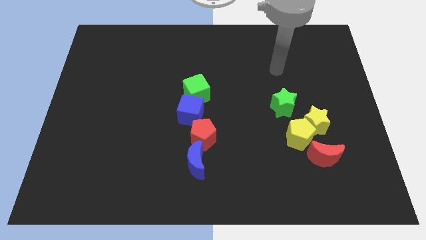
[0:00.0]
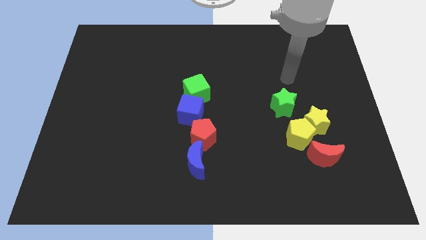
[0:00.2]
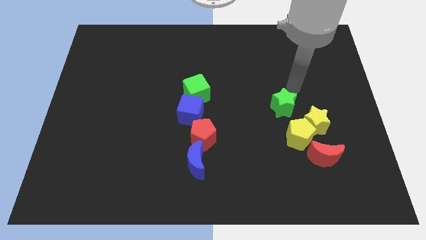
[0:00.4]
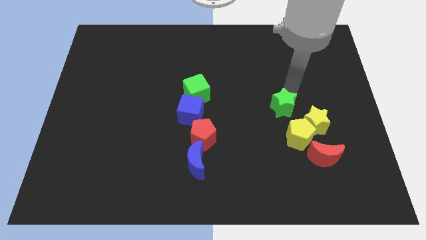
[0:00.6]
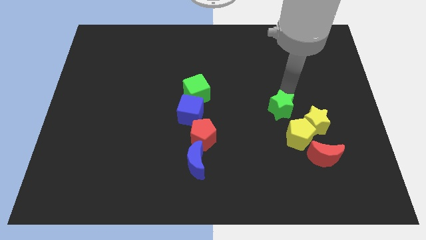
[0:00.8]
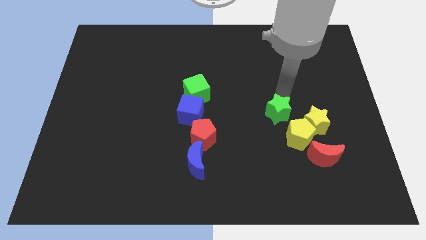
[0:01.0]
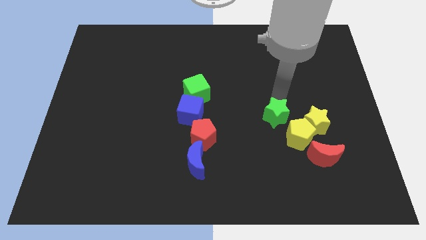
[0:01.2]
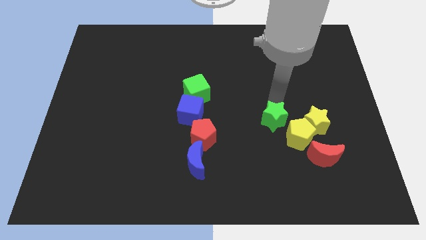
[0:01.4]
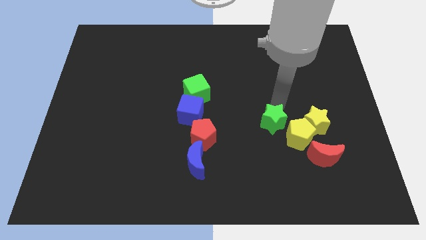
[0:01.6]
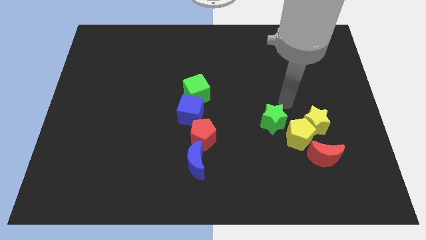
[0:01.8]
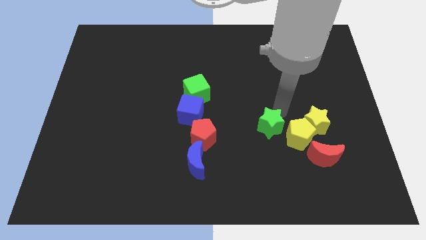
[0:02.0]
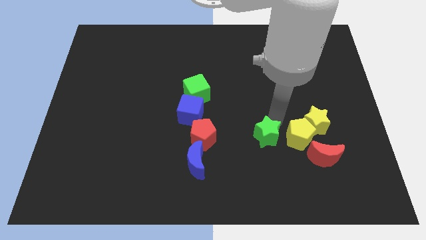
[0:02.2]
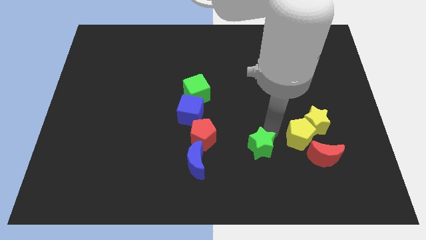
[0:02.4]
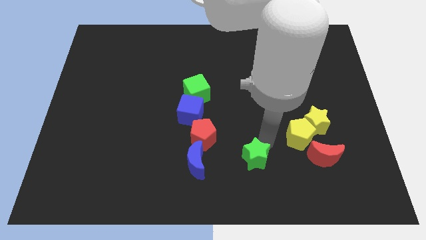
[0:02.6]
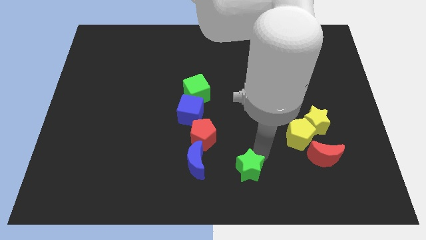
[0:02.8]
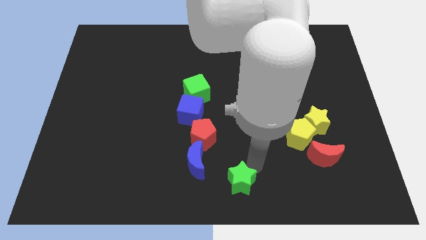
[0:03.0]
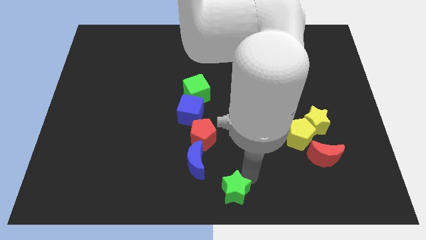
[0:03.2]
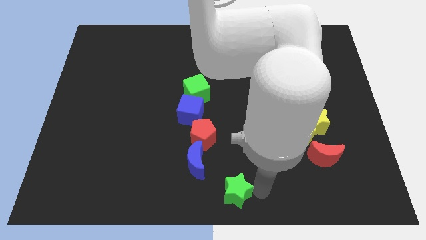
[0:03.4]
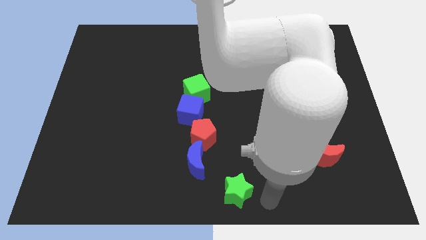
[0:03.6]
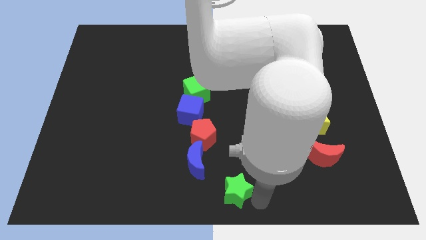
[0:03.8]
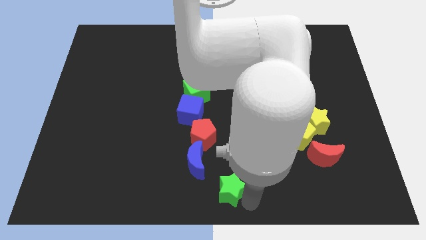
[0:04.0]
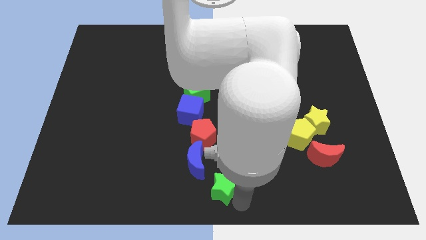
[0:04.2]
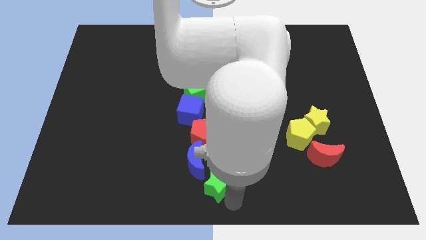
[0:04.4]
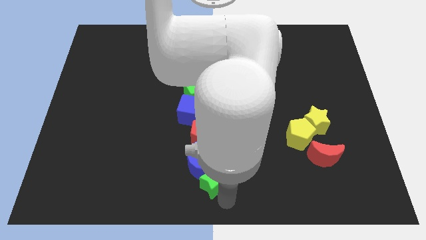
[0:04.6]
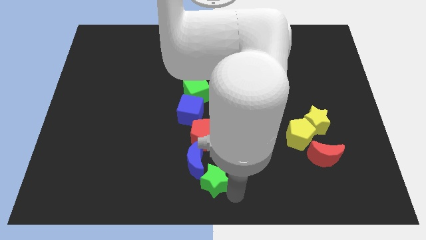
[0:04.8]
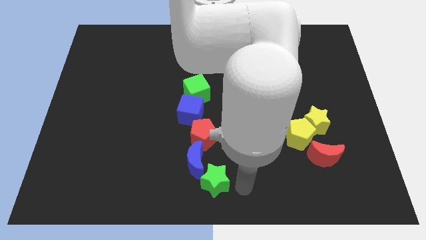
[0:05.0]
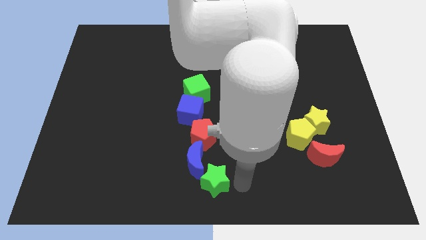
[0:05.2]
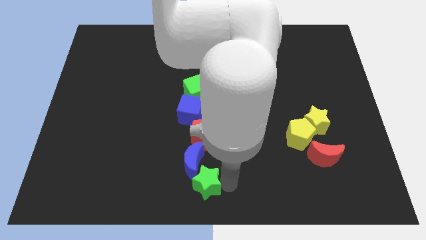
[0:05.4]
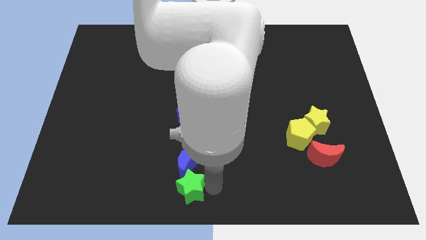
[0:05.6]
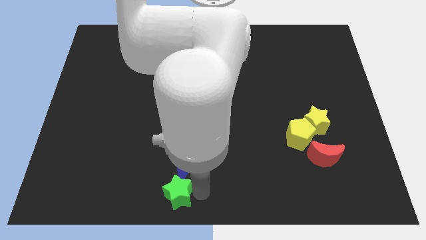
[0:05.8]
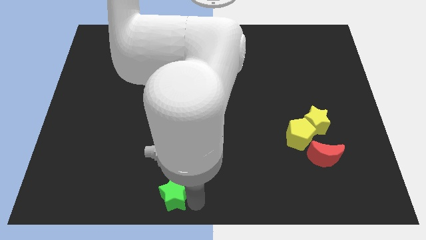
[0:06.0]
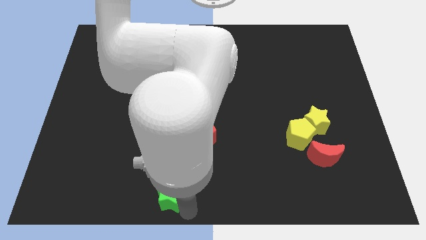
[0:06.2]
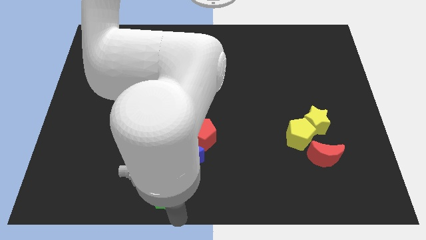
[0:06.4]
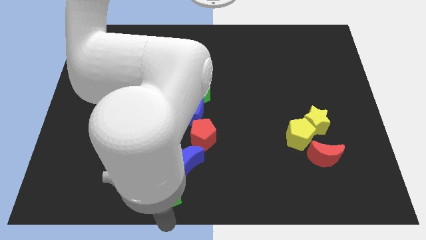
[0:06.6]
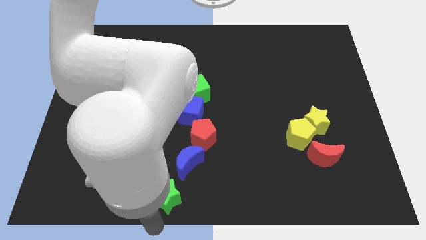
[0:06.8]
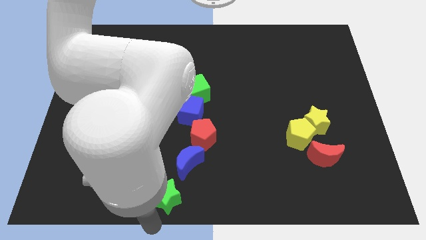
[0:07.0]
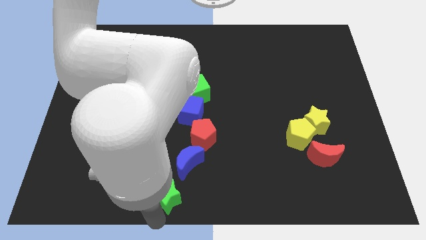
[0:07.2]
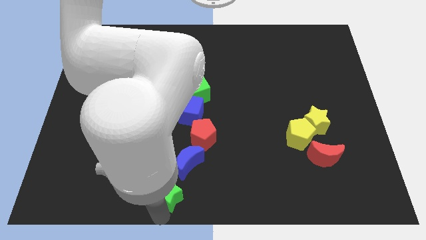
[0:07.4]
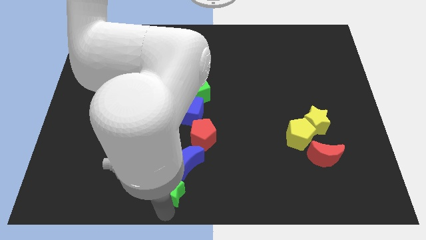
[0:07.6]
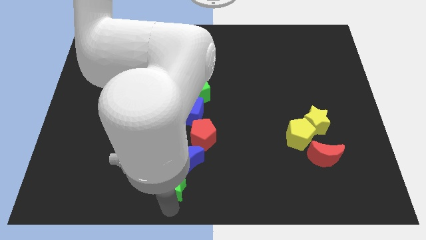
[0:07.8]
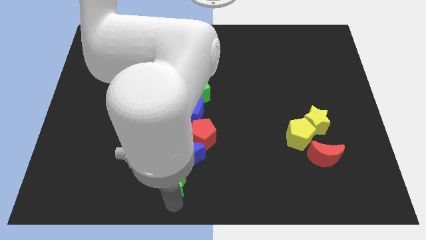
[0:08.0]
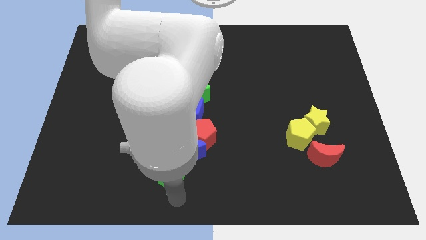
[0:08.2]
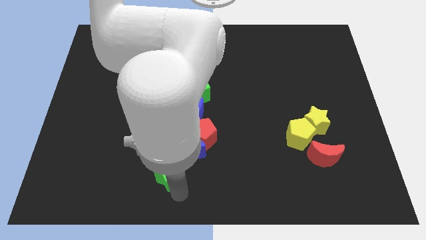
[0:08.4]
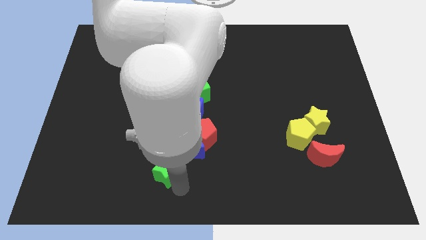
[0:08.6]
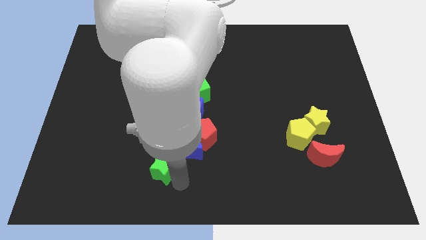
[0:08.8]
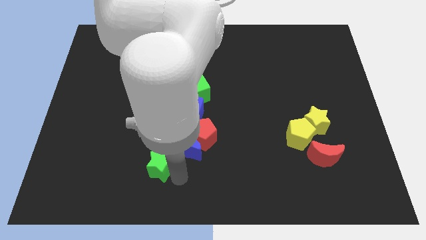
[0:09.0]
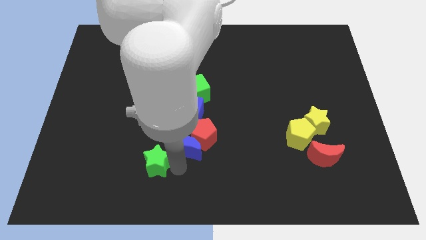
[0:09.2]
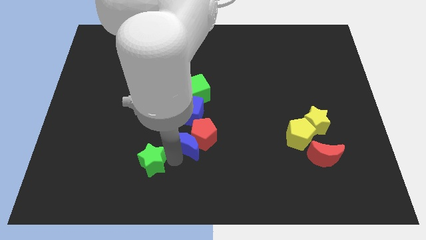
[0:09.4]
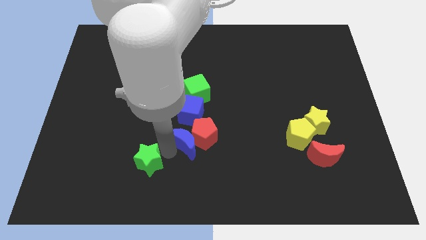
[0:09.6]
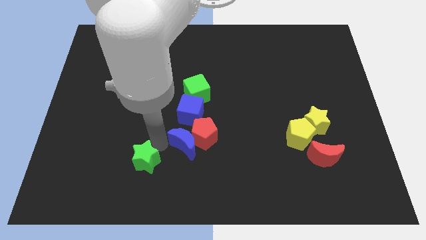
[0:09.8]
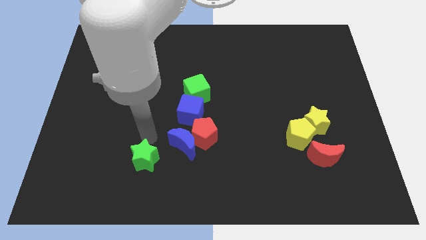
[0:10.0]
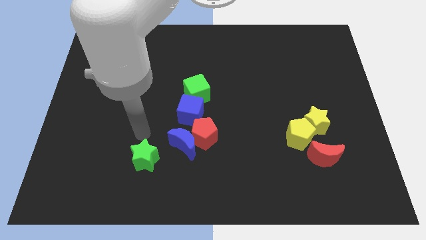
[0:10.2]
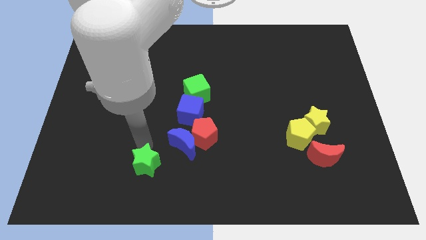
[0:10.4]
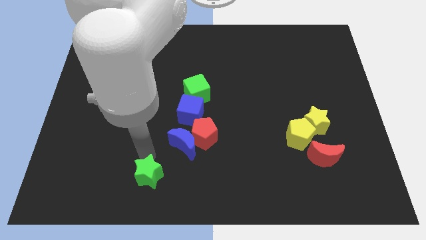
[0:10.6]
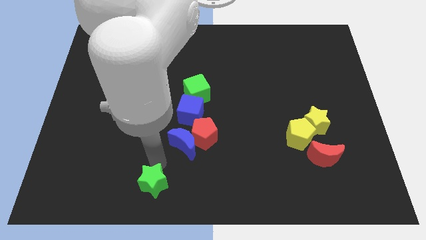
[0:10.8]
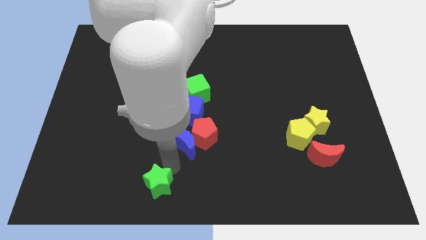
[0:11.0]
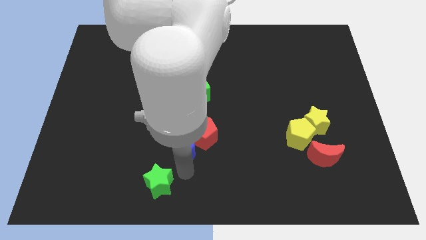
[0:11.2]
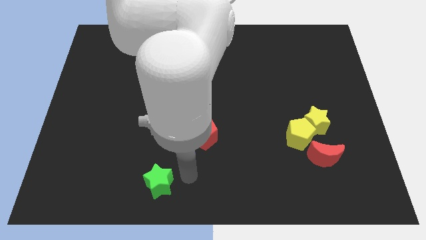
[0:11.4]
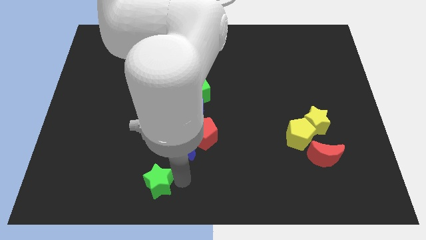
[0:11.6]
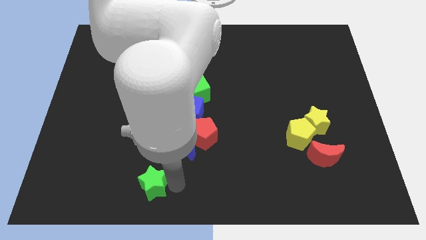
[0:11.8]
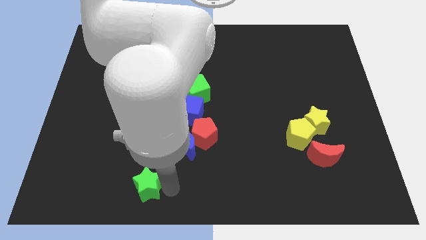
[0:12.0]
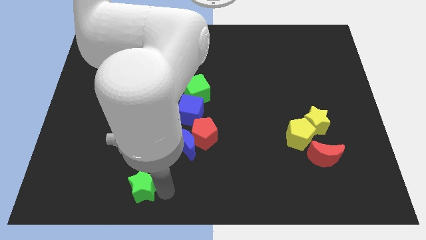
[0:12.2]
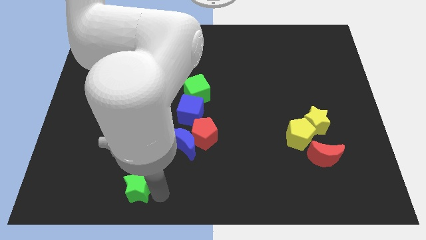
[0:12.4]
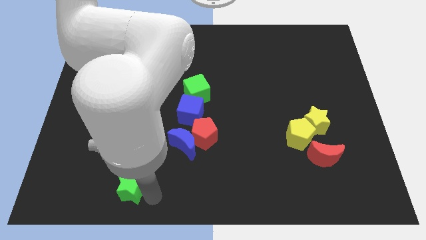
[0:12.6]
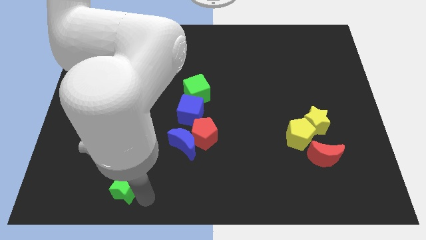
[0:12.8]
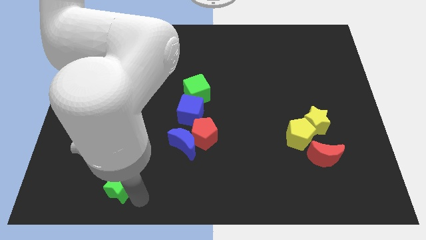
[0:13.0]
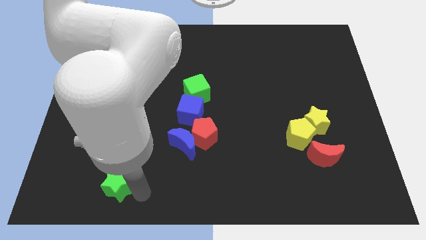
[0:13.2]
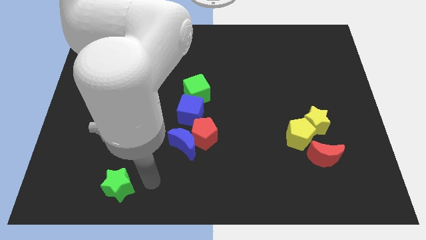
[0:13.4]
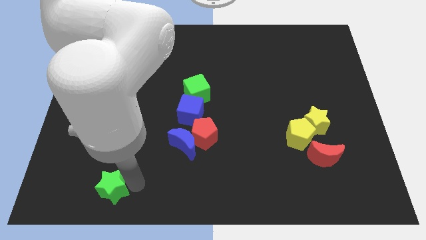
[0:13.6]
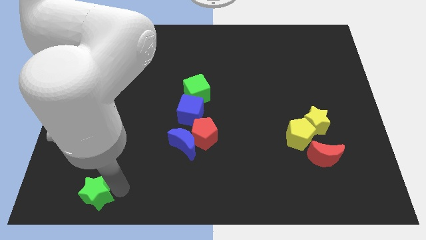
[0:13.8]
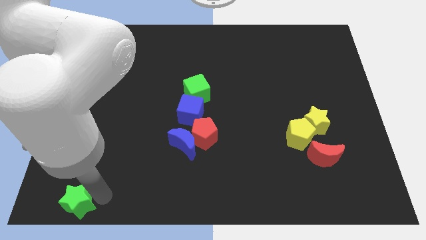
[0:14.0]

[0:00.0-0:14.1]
slide the green star to the bottom left
